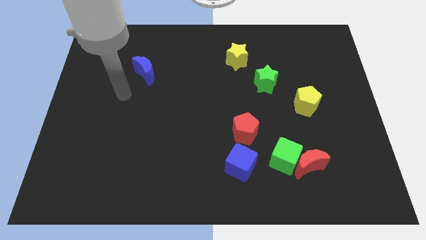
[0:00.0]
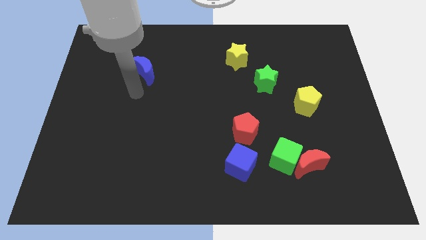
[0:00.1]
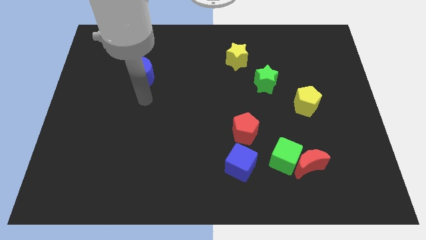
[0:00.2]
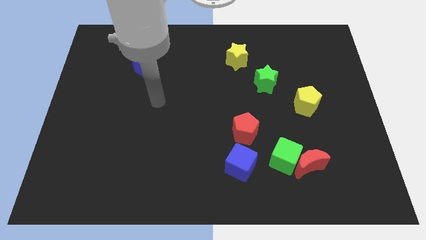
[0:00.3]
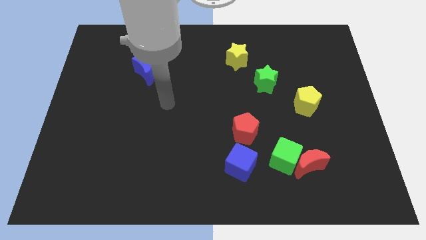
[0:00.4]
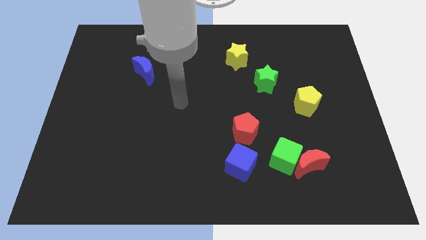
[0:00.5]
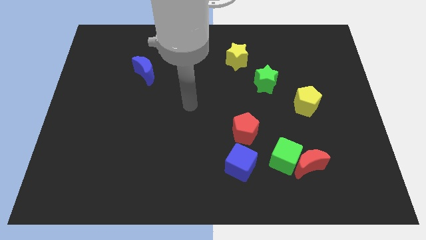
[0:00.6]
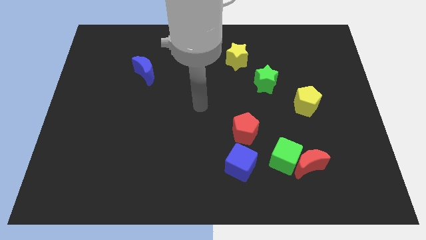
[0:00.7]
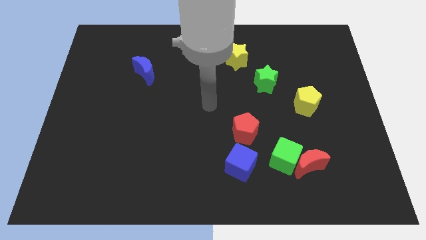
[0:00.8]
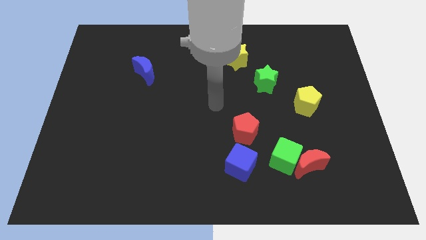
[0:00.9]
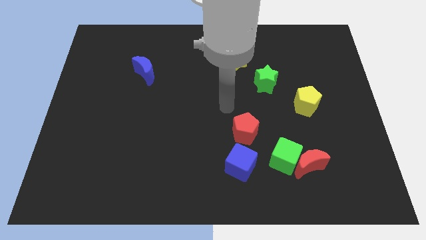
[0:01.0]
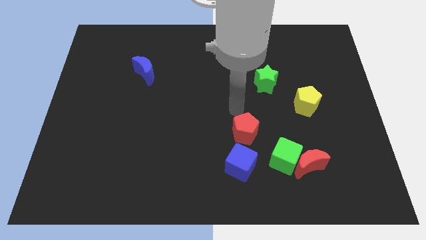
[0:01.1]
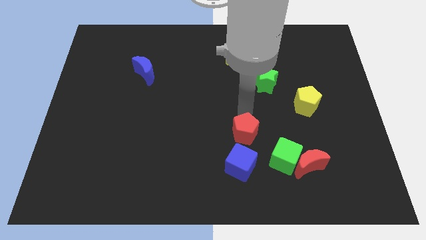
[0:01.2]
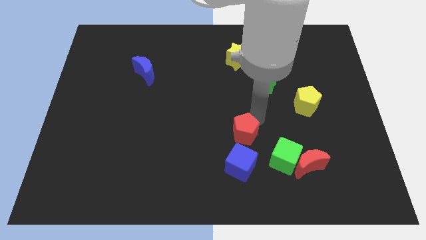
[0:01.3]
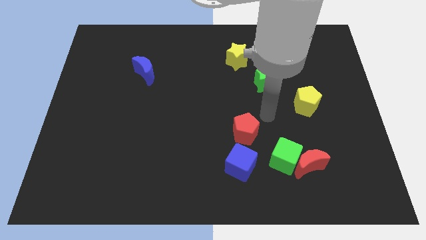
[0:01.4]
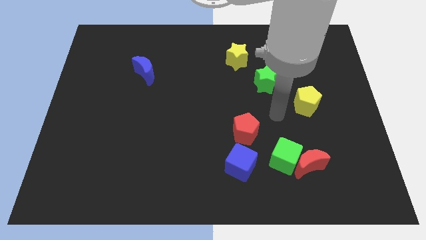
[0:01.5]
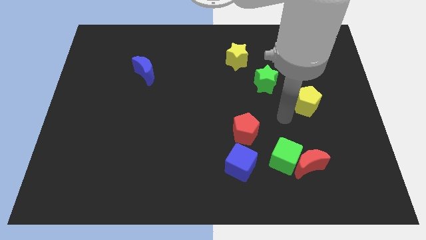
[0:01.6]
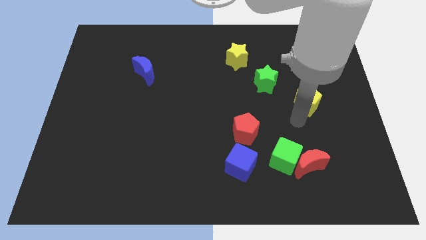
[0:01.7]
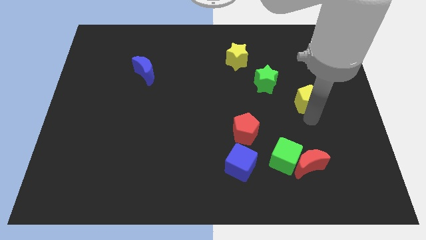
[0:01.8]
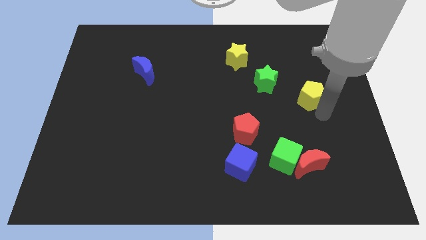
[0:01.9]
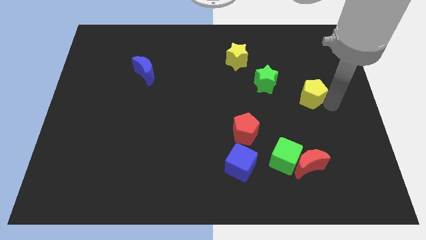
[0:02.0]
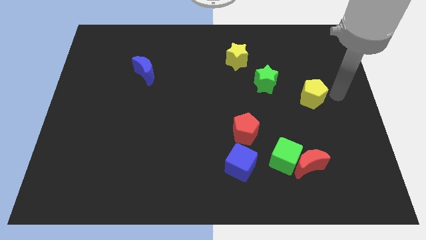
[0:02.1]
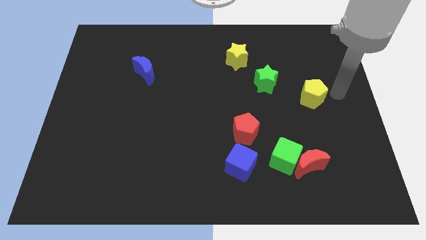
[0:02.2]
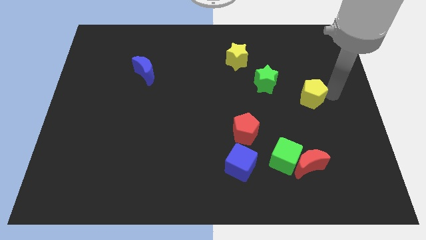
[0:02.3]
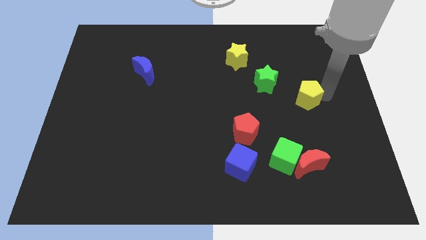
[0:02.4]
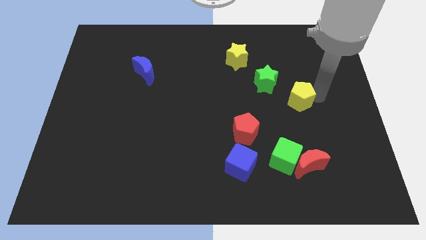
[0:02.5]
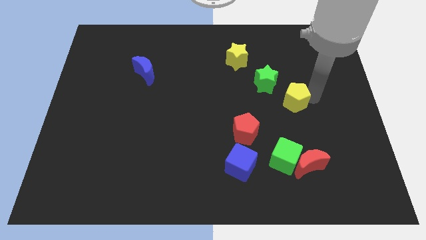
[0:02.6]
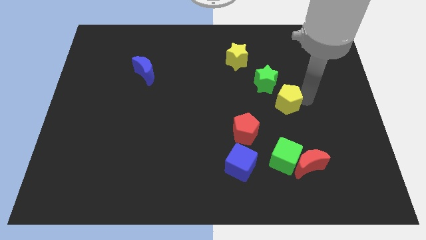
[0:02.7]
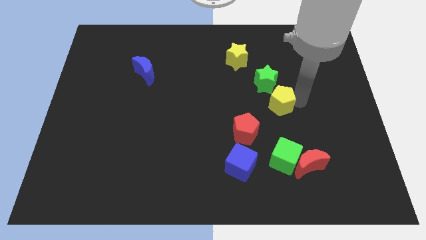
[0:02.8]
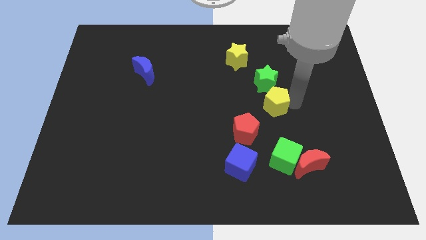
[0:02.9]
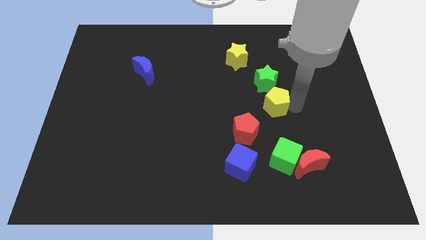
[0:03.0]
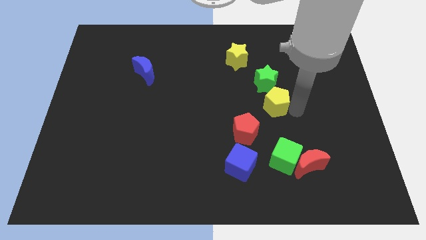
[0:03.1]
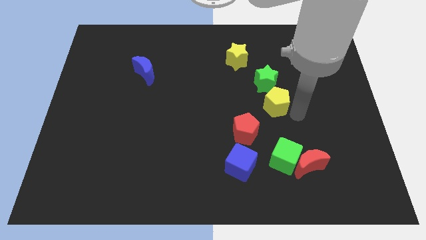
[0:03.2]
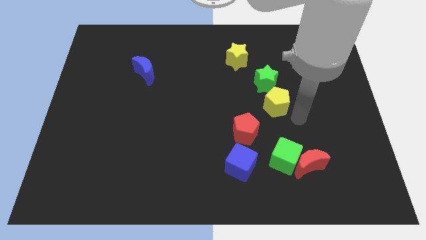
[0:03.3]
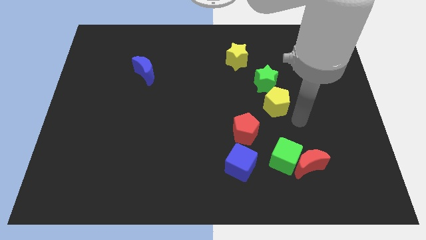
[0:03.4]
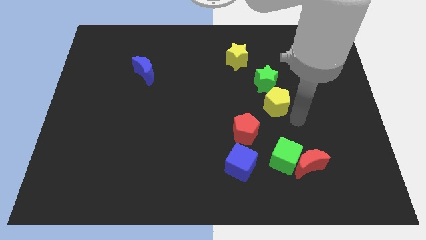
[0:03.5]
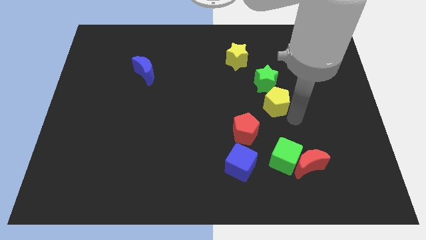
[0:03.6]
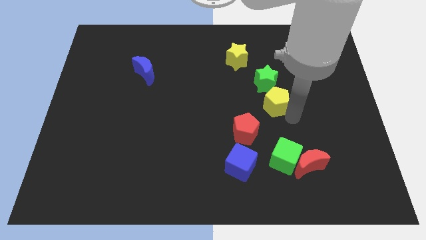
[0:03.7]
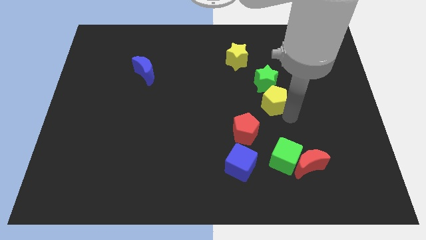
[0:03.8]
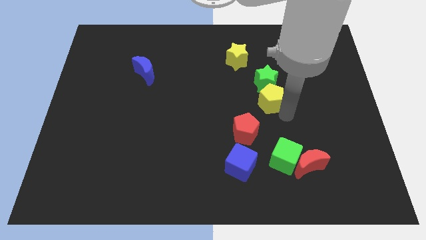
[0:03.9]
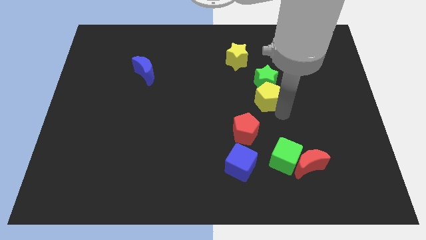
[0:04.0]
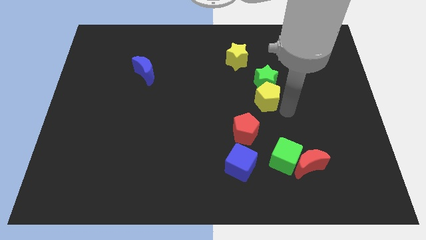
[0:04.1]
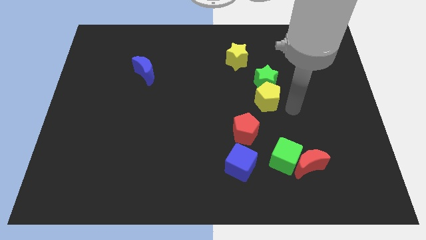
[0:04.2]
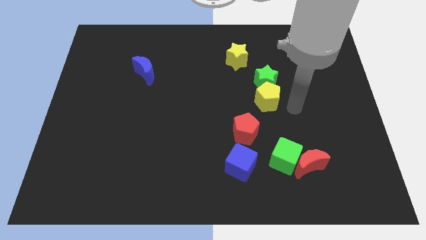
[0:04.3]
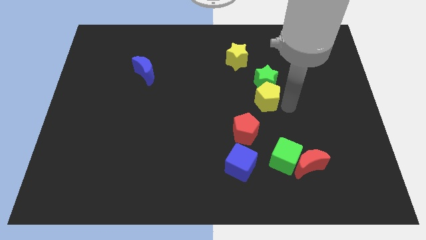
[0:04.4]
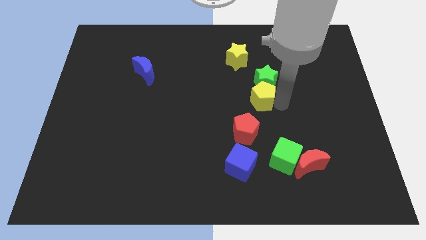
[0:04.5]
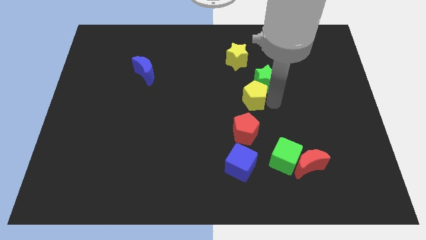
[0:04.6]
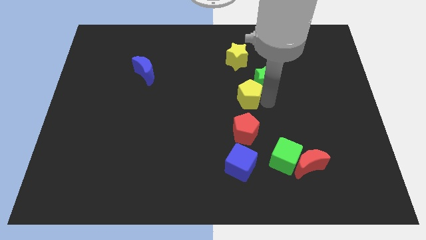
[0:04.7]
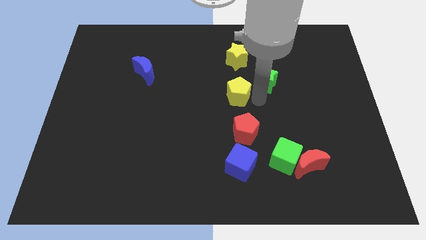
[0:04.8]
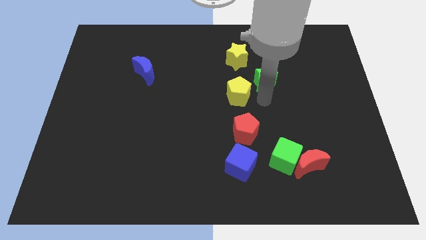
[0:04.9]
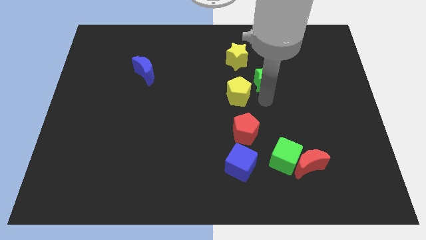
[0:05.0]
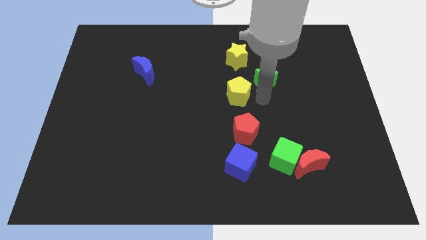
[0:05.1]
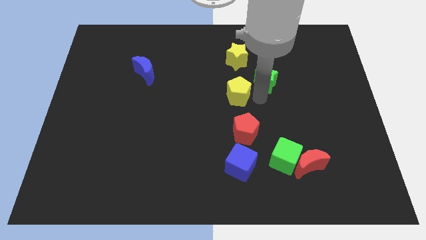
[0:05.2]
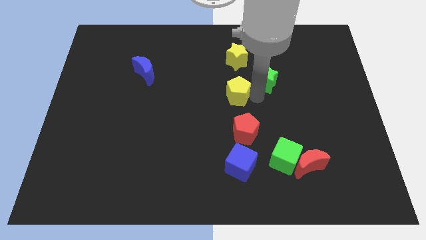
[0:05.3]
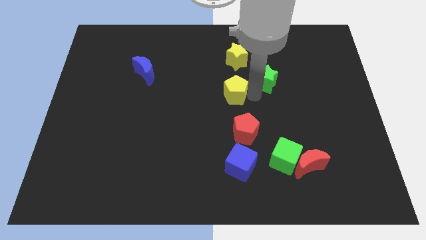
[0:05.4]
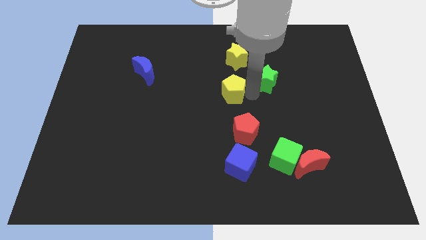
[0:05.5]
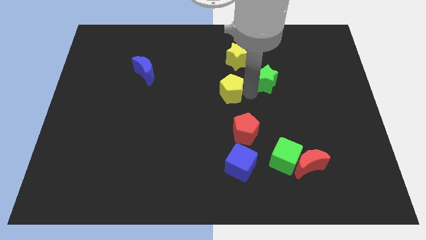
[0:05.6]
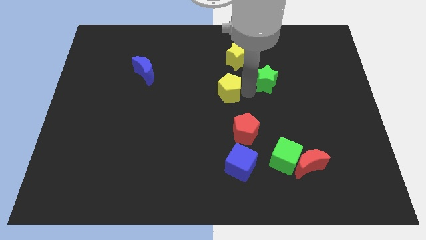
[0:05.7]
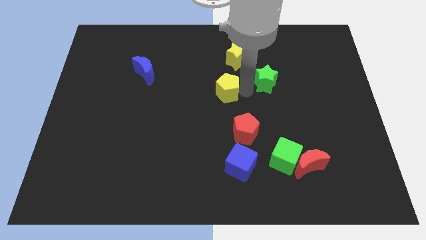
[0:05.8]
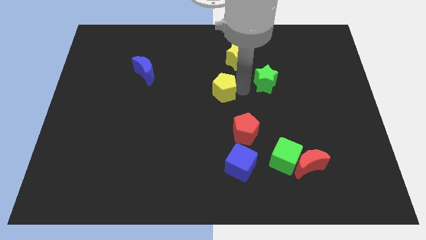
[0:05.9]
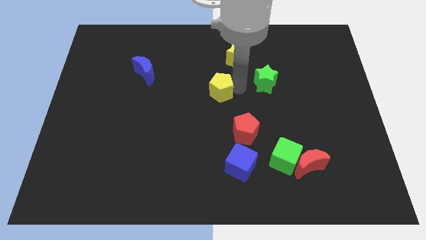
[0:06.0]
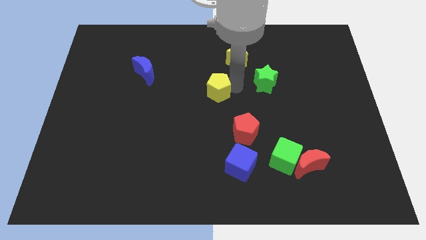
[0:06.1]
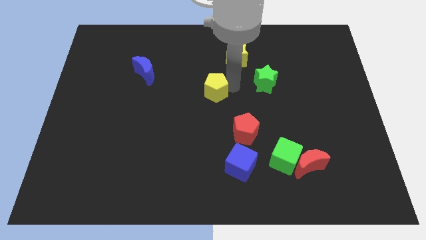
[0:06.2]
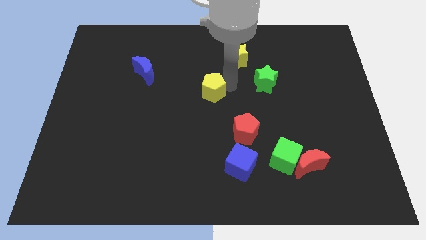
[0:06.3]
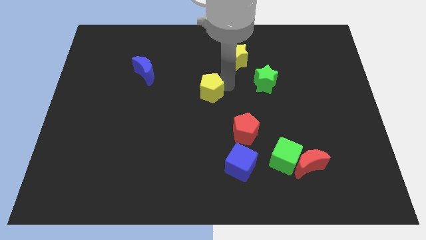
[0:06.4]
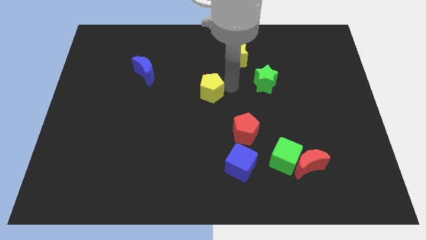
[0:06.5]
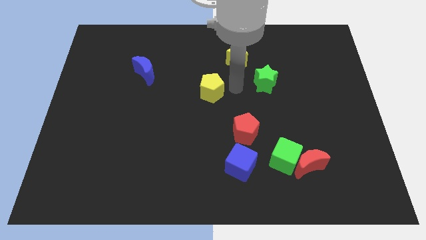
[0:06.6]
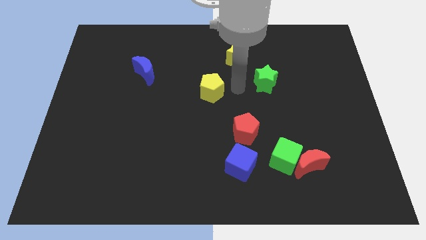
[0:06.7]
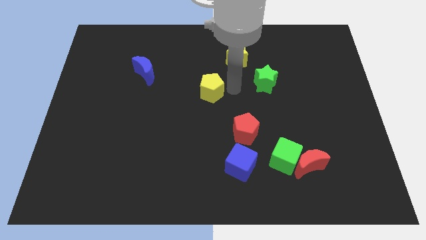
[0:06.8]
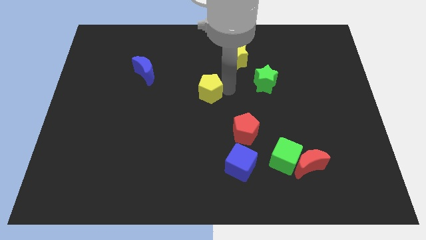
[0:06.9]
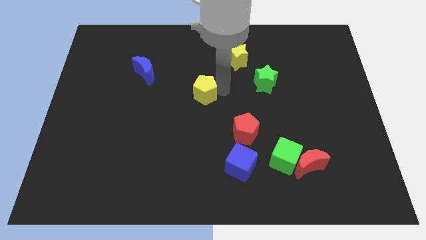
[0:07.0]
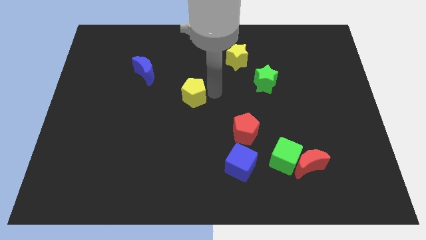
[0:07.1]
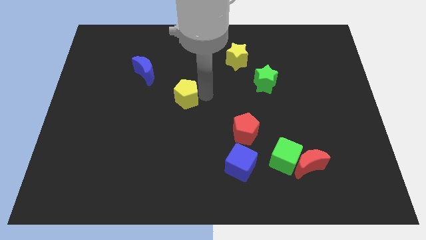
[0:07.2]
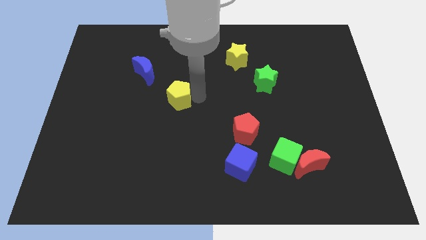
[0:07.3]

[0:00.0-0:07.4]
push the yellow pentagon diagonally down and to the right of the blue moon

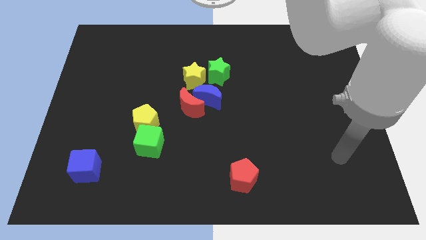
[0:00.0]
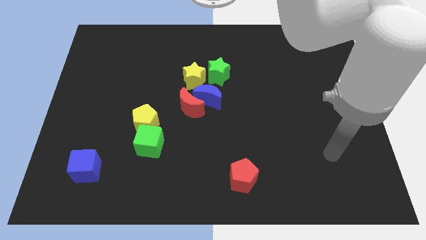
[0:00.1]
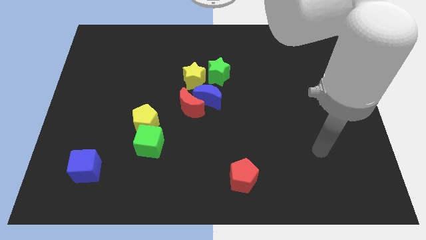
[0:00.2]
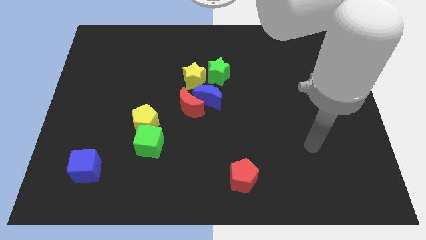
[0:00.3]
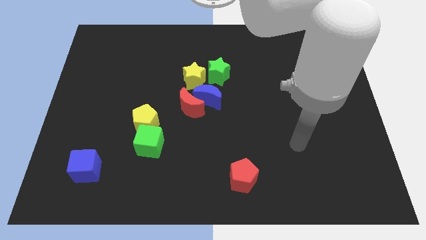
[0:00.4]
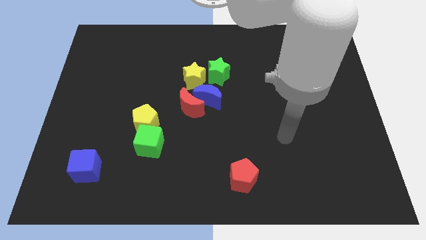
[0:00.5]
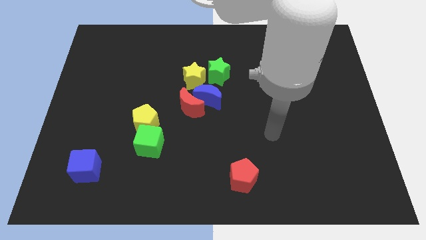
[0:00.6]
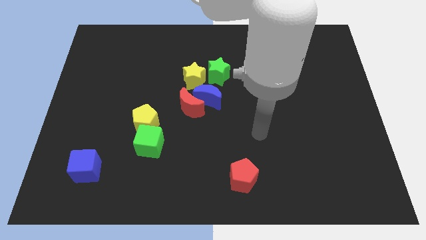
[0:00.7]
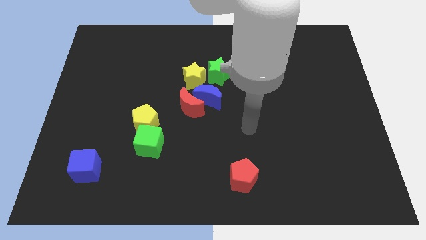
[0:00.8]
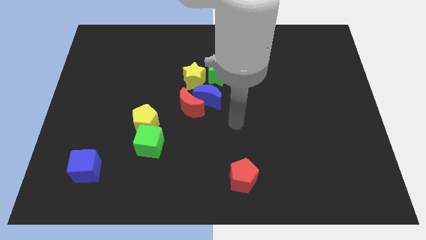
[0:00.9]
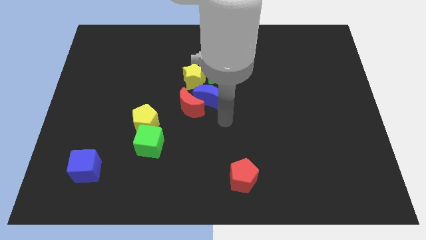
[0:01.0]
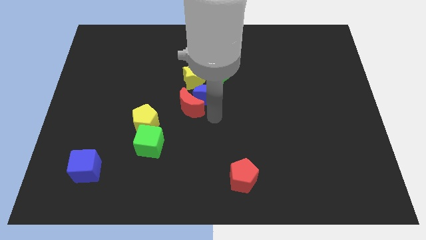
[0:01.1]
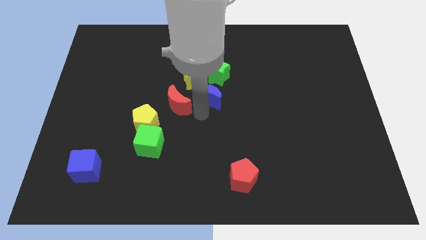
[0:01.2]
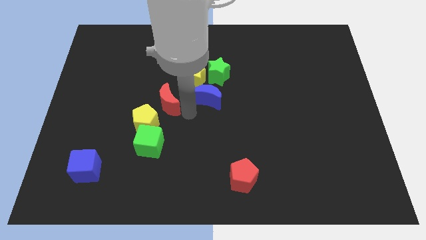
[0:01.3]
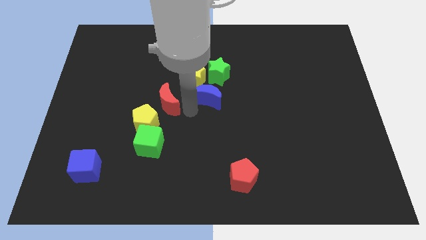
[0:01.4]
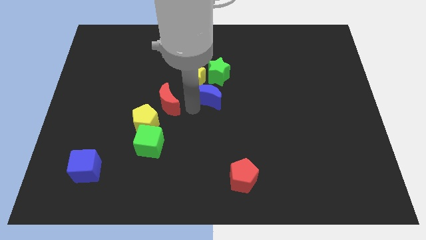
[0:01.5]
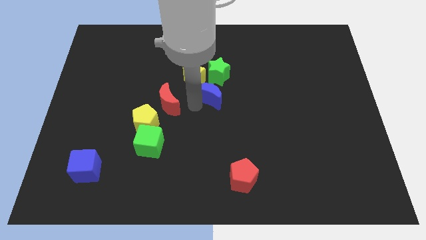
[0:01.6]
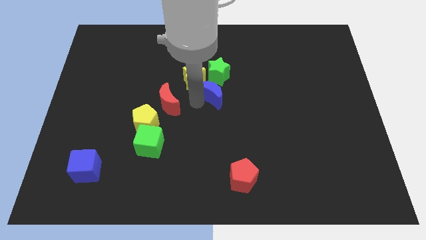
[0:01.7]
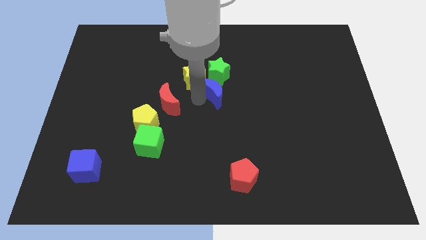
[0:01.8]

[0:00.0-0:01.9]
push the blue moon right of the yellow star
